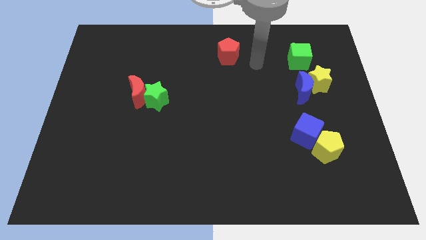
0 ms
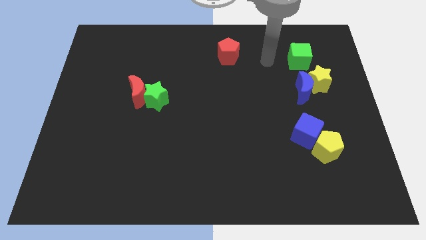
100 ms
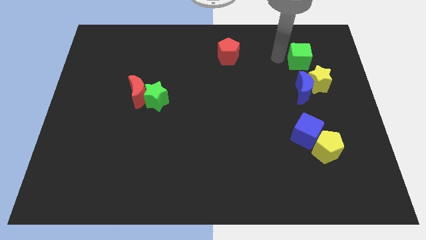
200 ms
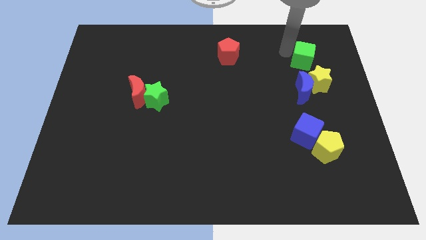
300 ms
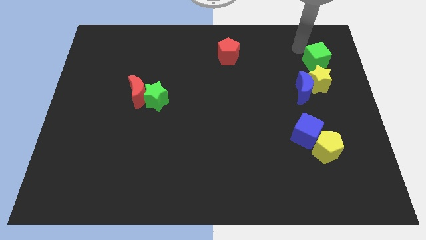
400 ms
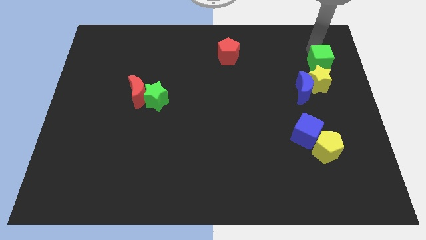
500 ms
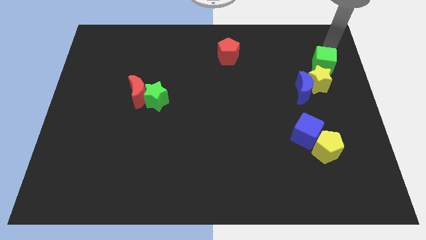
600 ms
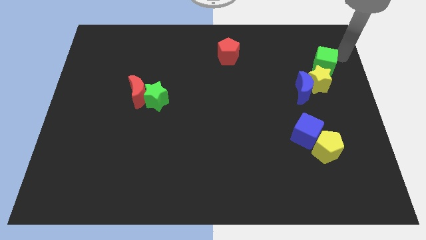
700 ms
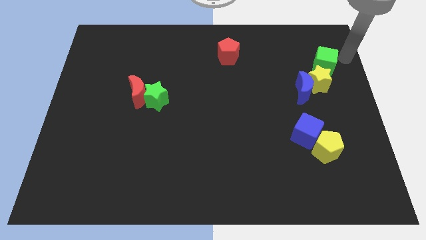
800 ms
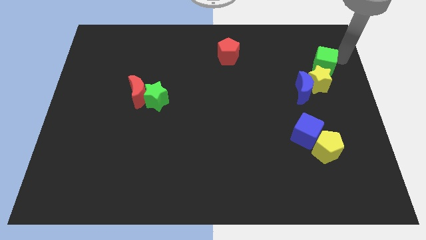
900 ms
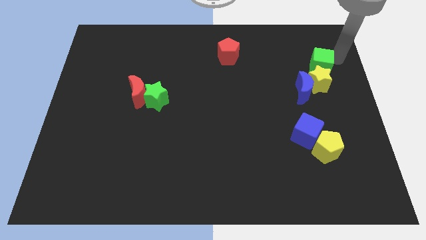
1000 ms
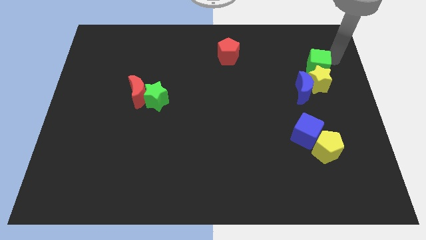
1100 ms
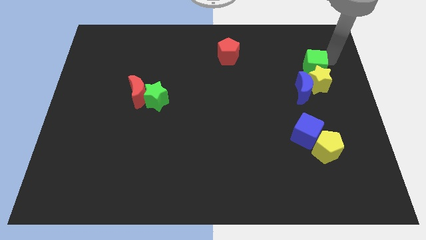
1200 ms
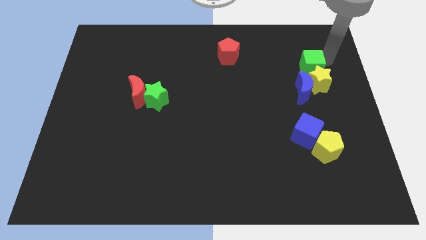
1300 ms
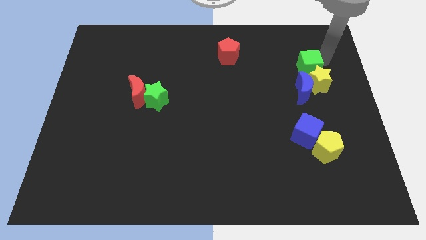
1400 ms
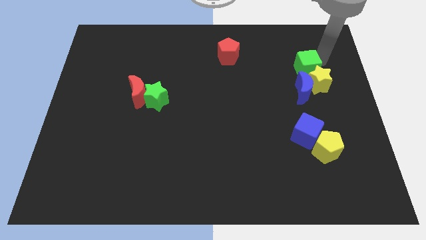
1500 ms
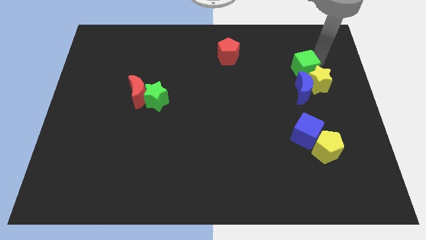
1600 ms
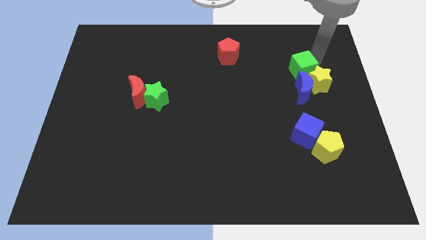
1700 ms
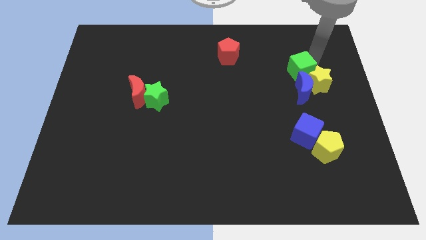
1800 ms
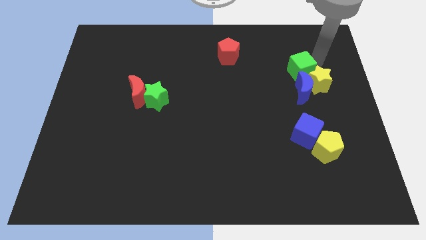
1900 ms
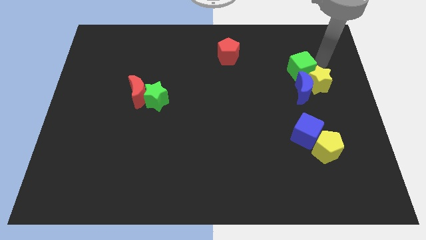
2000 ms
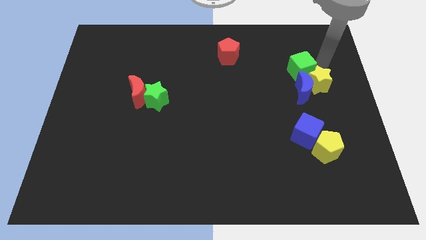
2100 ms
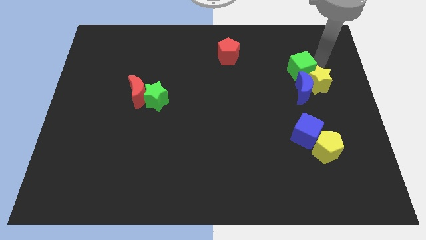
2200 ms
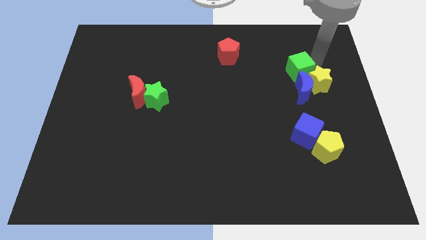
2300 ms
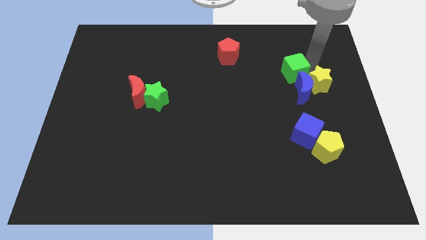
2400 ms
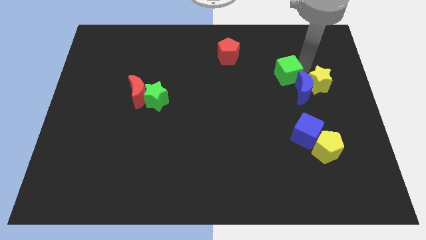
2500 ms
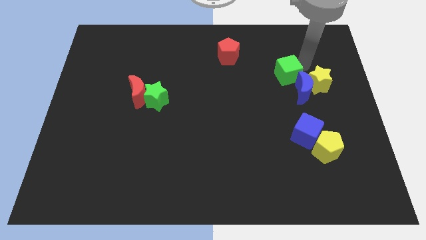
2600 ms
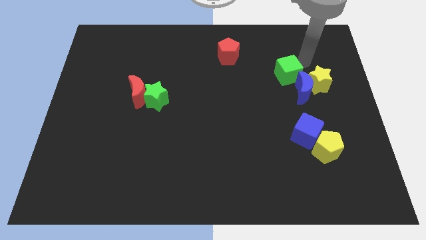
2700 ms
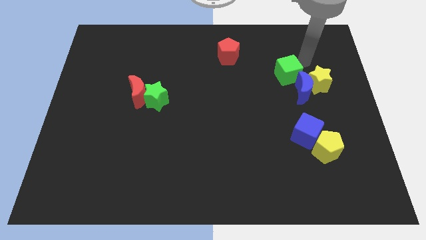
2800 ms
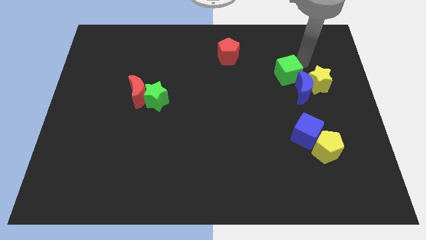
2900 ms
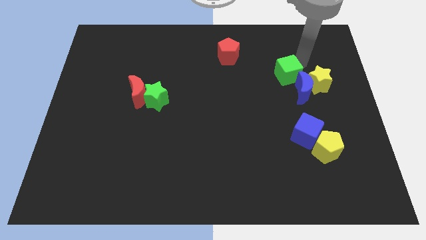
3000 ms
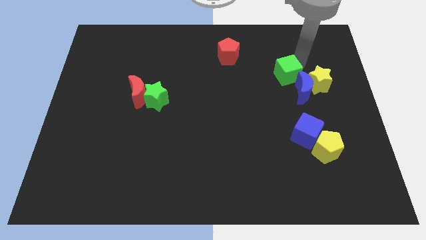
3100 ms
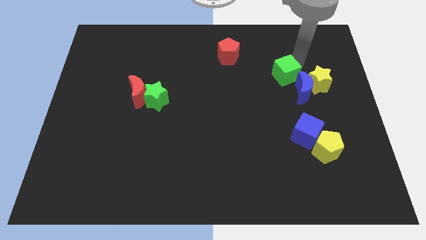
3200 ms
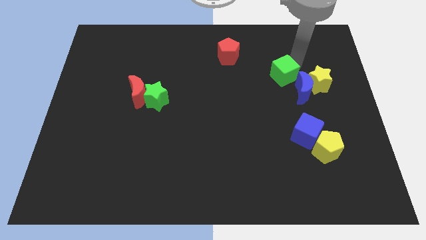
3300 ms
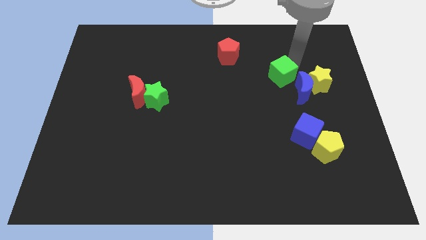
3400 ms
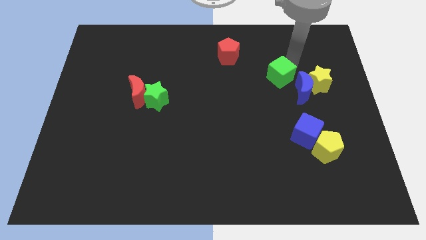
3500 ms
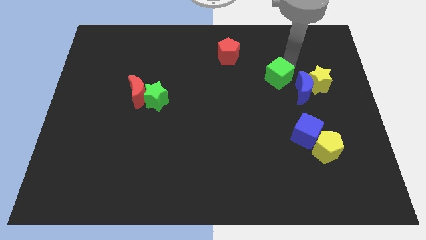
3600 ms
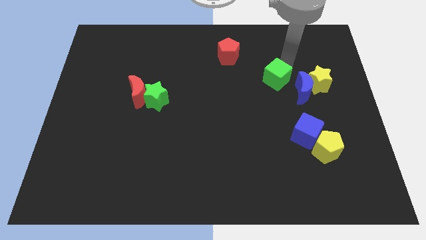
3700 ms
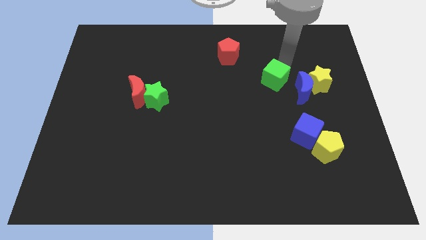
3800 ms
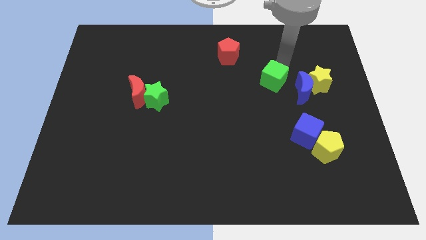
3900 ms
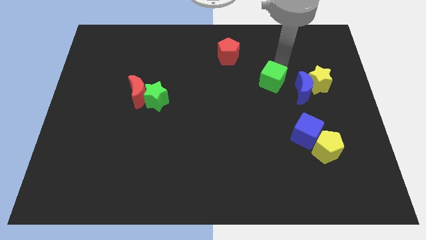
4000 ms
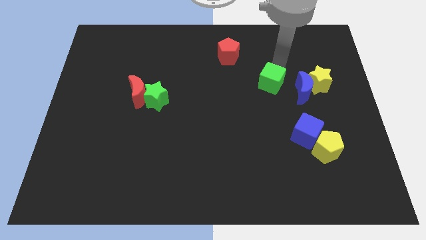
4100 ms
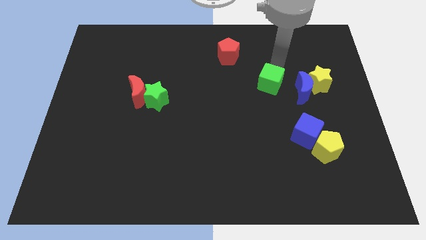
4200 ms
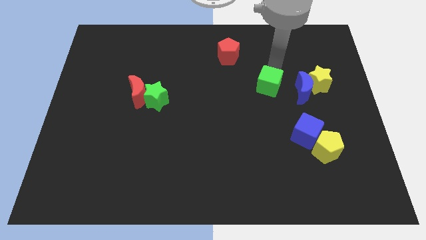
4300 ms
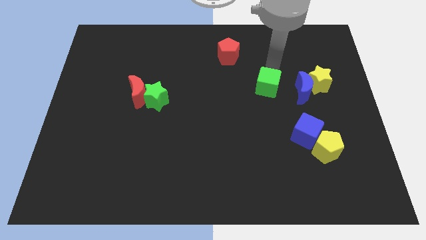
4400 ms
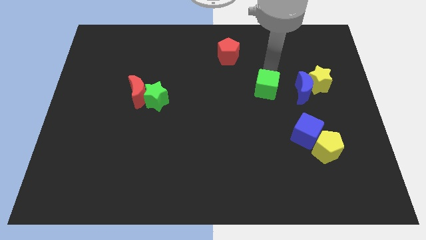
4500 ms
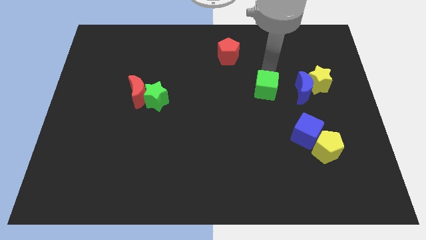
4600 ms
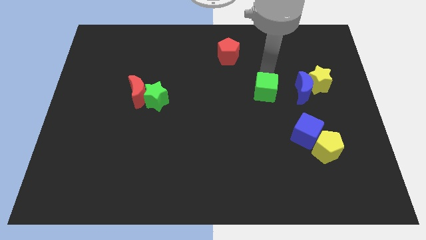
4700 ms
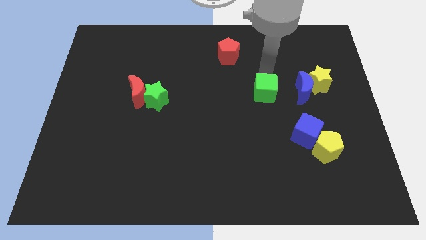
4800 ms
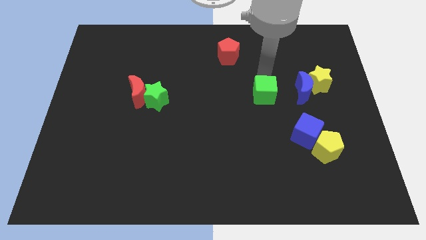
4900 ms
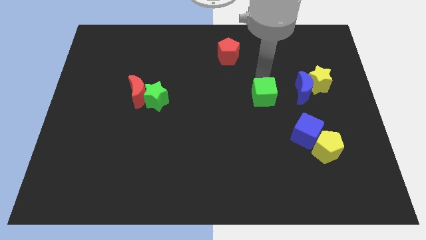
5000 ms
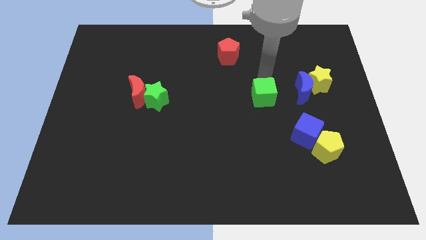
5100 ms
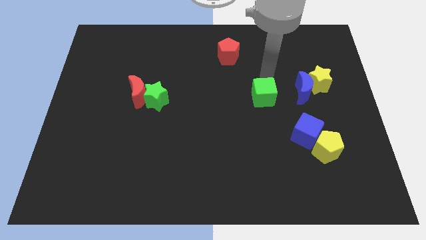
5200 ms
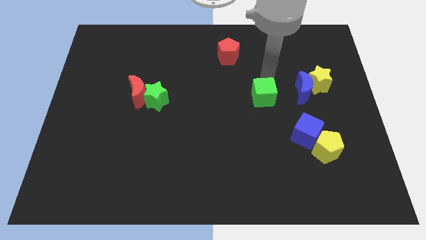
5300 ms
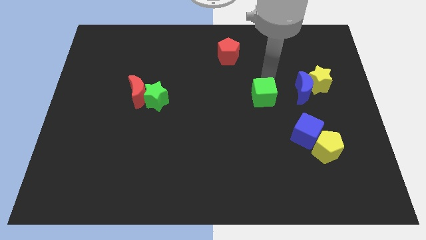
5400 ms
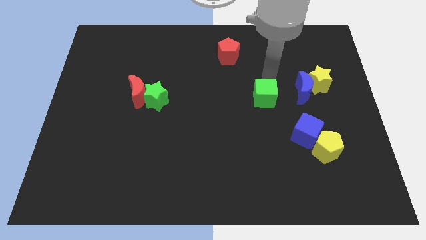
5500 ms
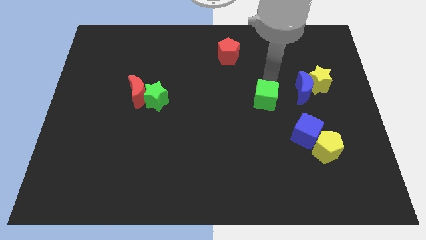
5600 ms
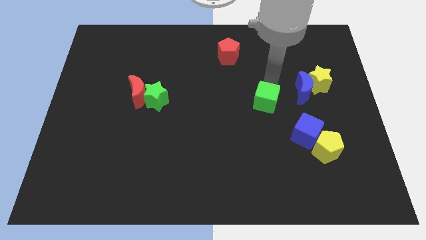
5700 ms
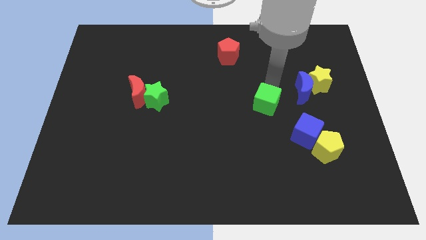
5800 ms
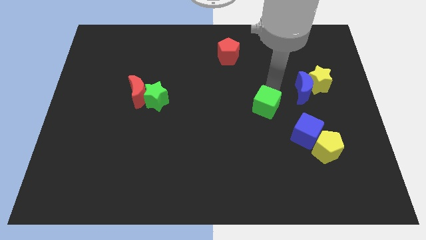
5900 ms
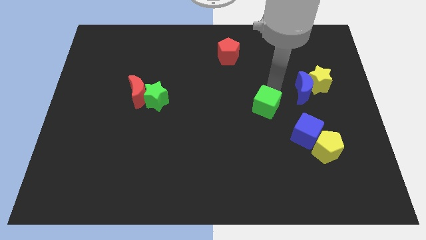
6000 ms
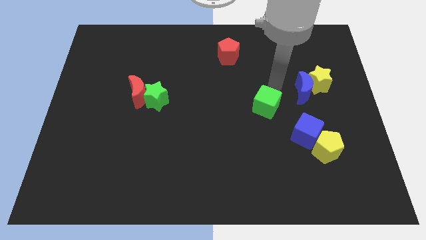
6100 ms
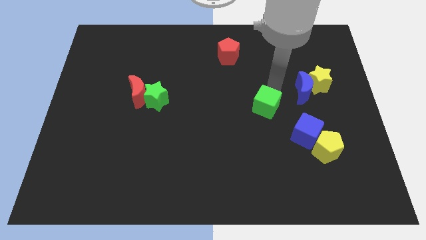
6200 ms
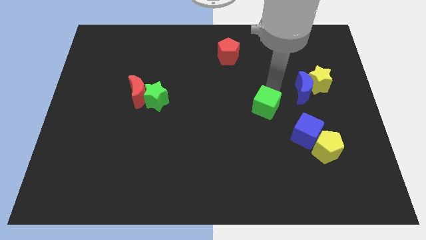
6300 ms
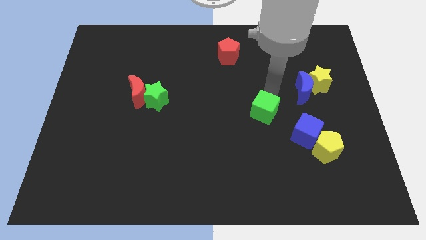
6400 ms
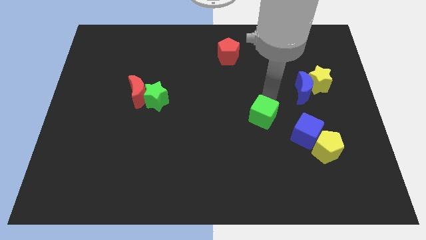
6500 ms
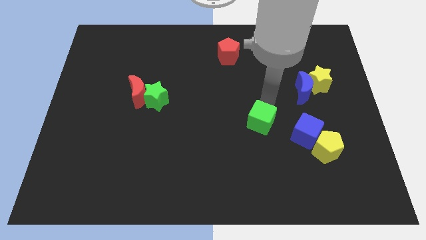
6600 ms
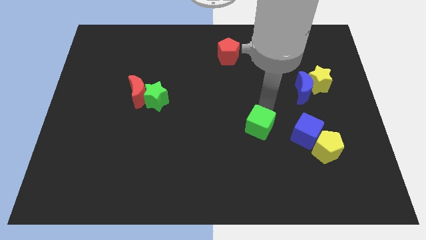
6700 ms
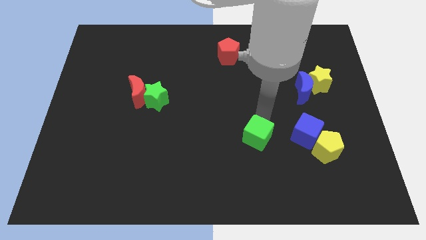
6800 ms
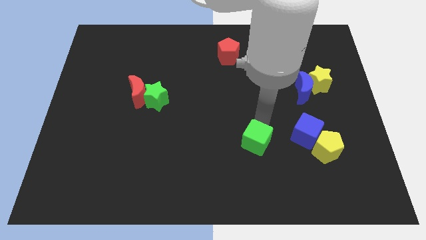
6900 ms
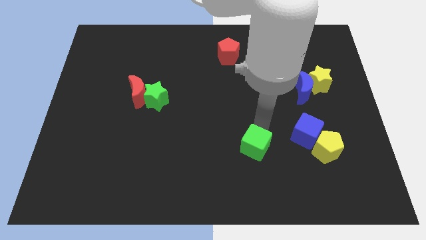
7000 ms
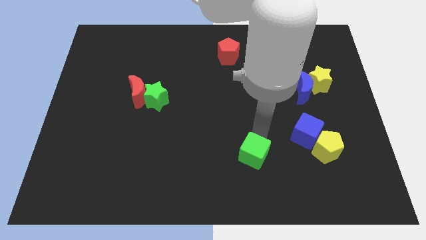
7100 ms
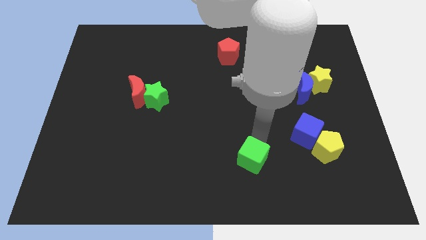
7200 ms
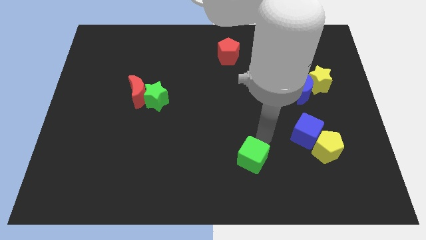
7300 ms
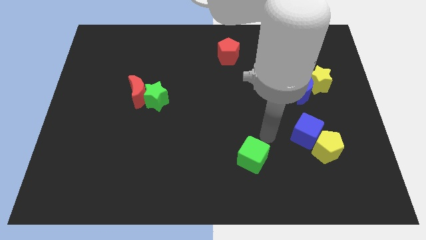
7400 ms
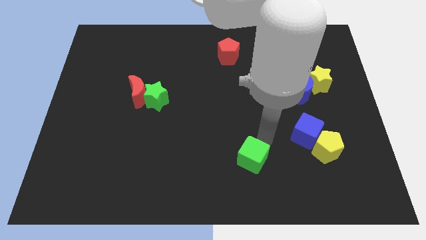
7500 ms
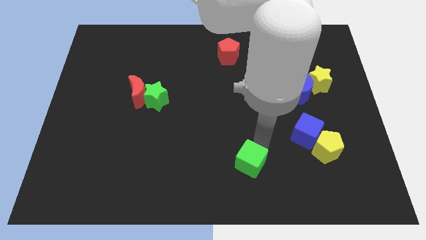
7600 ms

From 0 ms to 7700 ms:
slide the green cube to the bottom side
